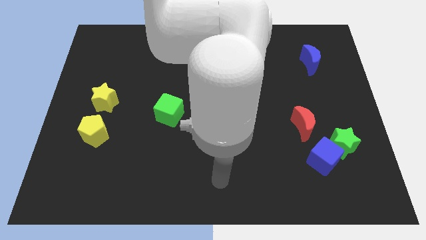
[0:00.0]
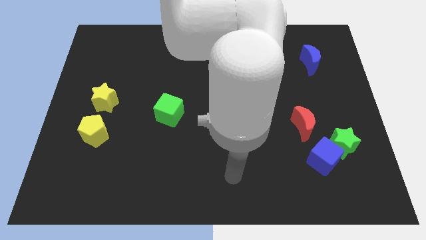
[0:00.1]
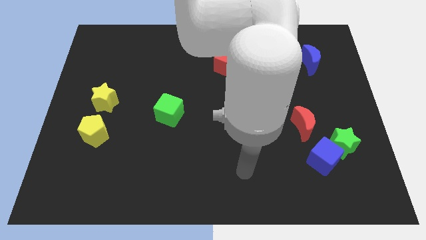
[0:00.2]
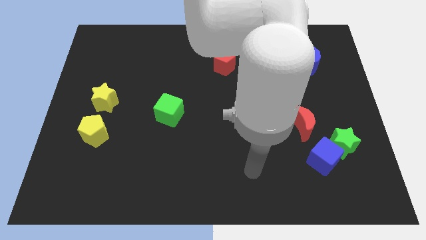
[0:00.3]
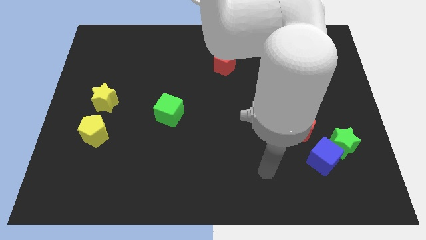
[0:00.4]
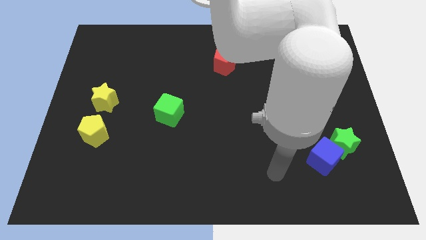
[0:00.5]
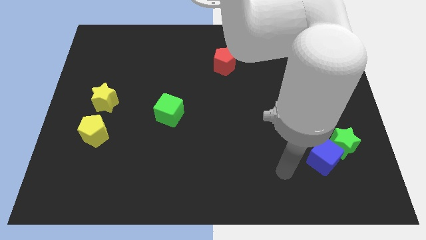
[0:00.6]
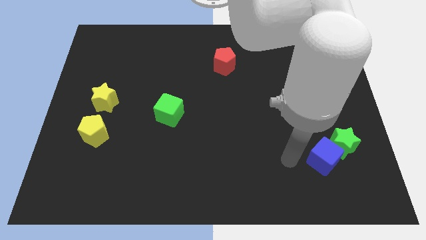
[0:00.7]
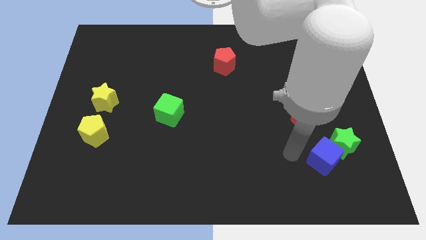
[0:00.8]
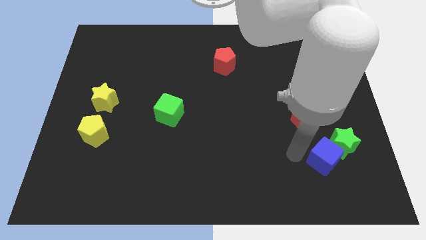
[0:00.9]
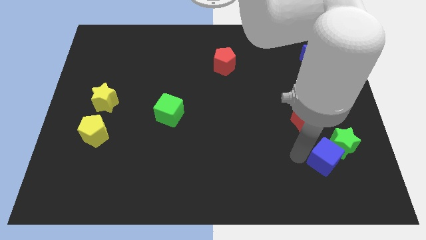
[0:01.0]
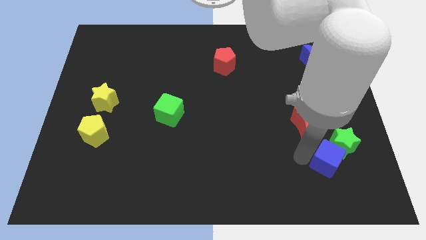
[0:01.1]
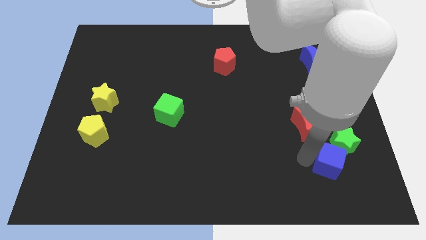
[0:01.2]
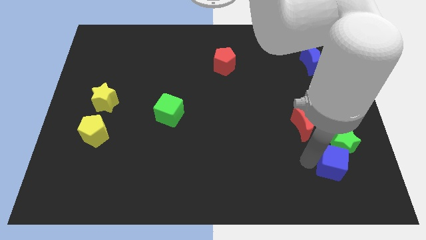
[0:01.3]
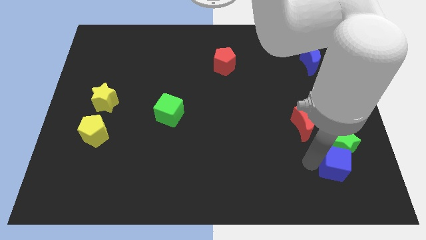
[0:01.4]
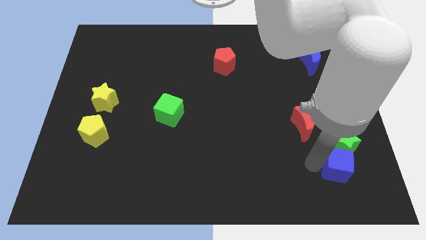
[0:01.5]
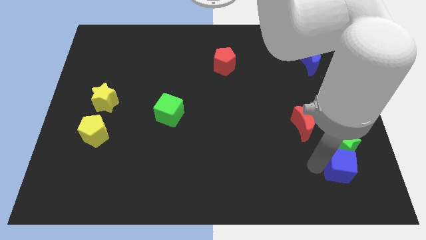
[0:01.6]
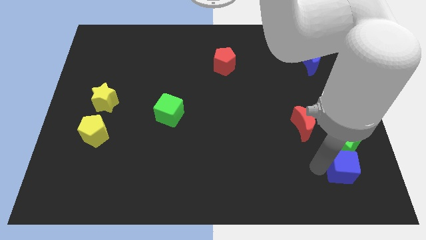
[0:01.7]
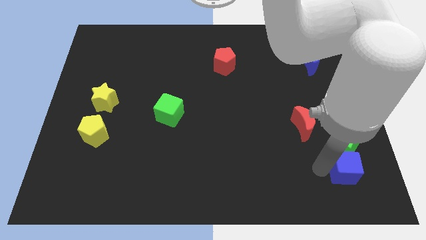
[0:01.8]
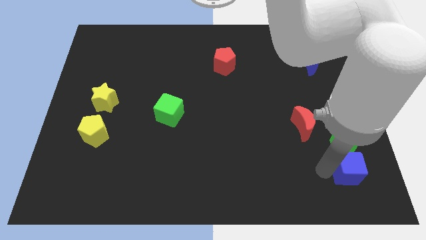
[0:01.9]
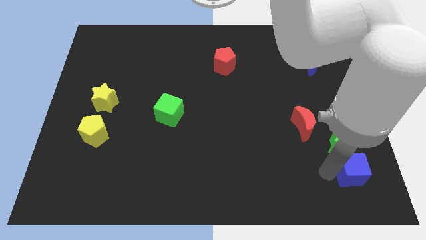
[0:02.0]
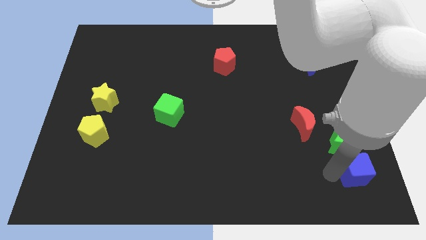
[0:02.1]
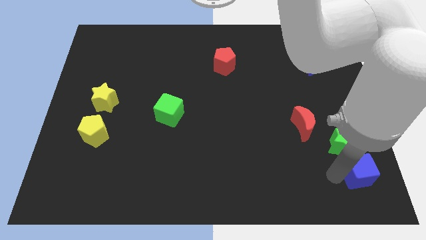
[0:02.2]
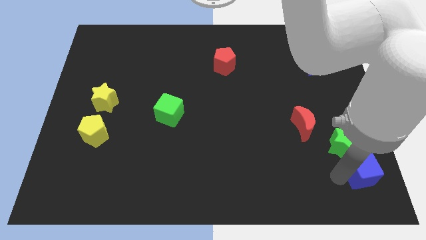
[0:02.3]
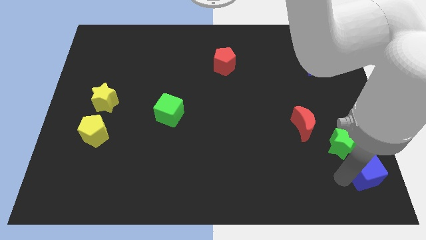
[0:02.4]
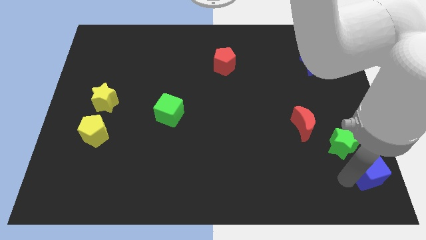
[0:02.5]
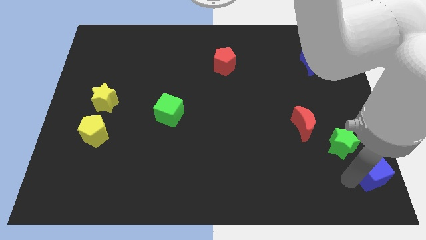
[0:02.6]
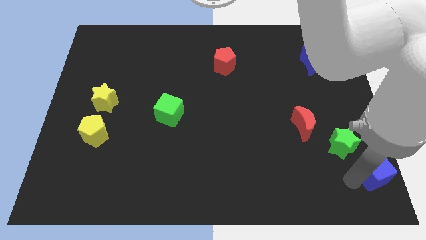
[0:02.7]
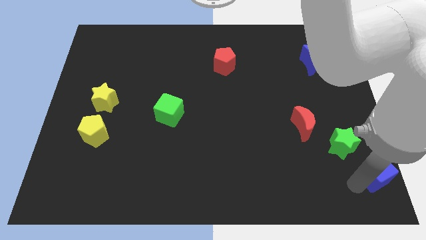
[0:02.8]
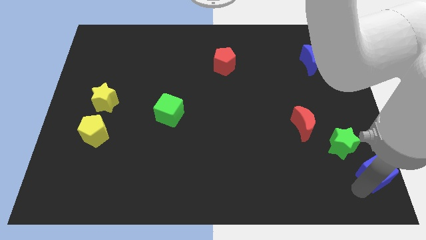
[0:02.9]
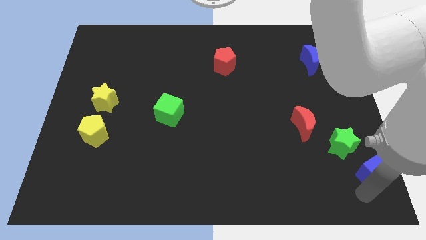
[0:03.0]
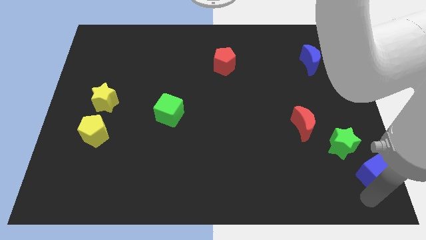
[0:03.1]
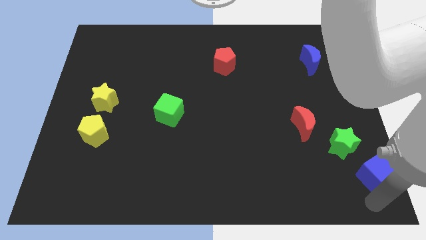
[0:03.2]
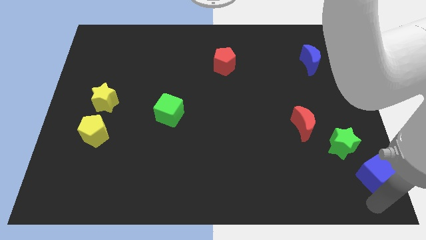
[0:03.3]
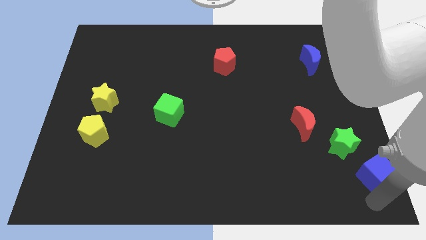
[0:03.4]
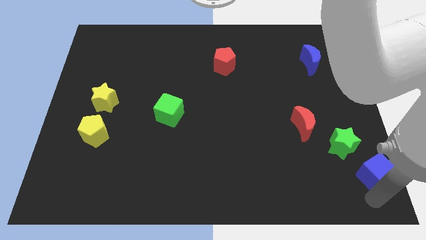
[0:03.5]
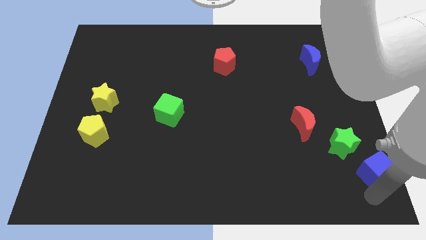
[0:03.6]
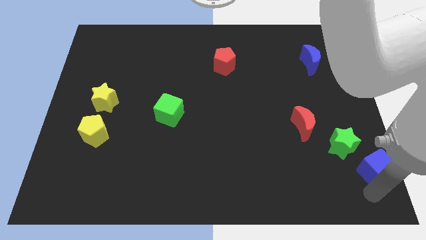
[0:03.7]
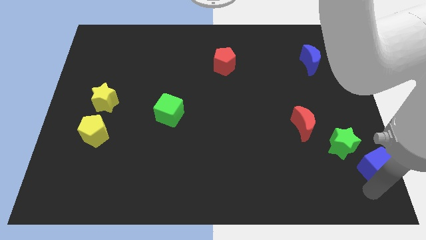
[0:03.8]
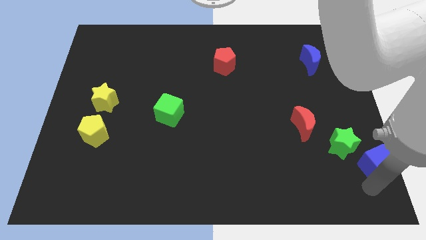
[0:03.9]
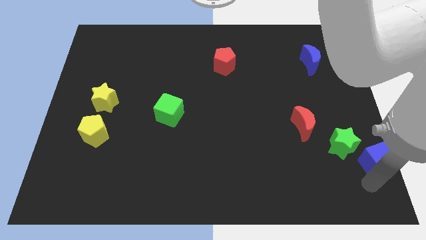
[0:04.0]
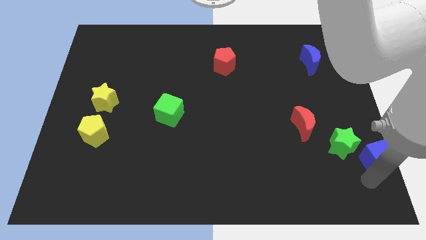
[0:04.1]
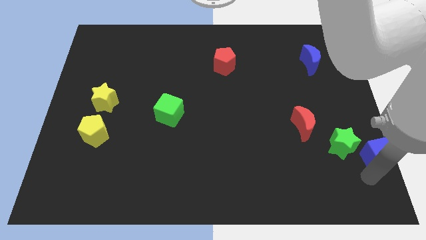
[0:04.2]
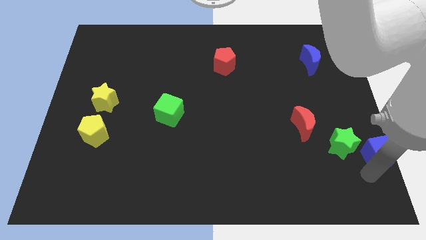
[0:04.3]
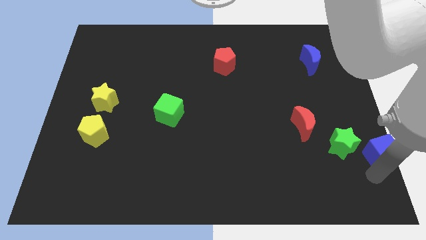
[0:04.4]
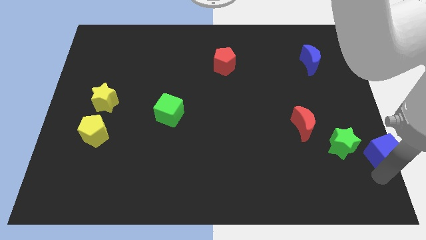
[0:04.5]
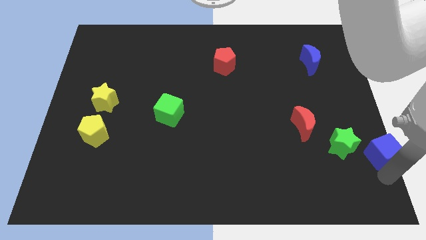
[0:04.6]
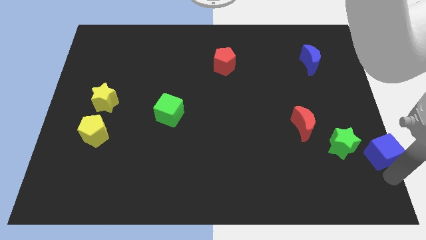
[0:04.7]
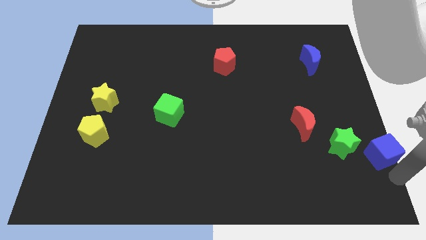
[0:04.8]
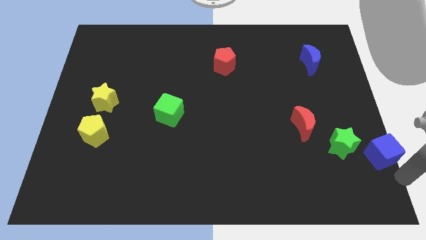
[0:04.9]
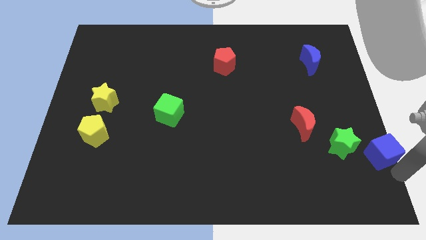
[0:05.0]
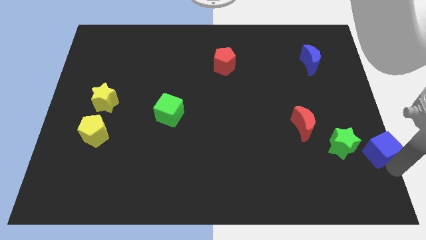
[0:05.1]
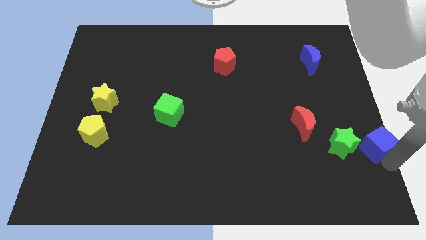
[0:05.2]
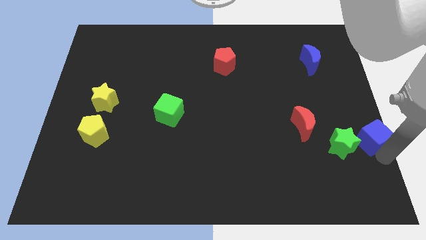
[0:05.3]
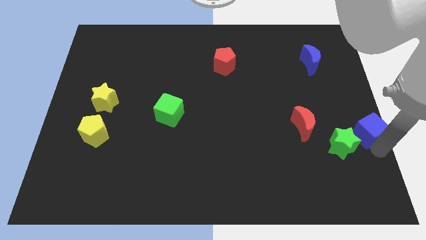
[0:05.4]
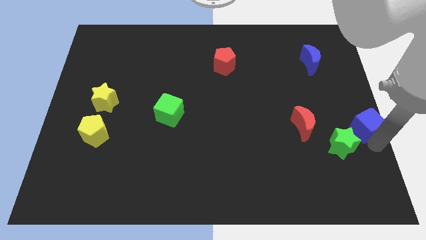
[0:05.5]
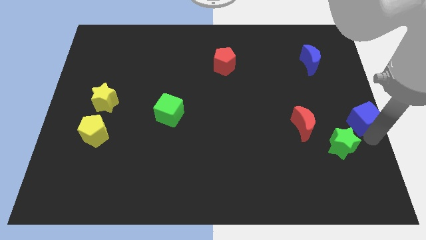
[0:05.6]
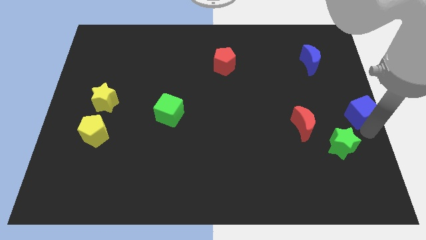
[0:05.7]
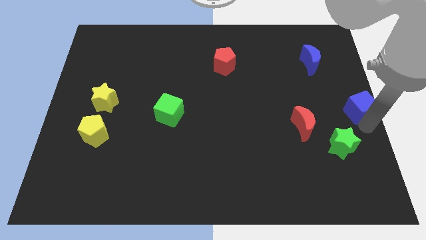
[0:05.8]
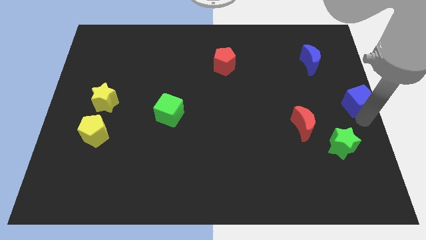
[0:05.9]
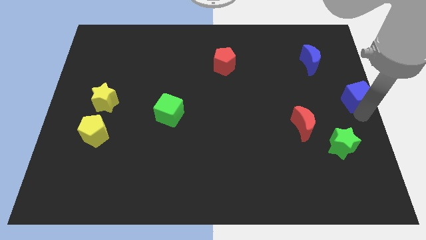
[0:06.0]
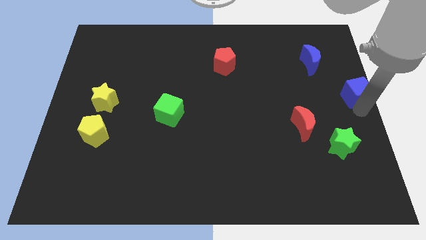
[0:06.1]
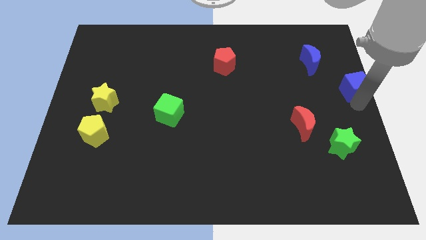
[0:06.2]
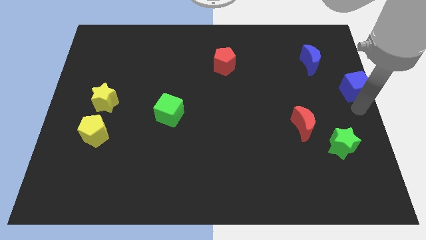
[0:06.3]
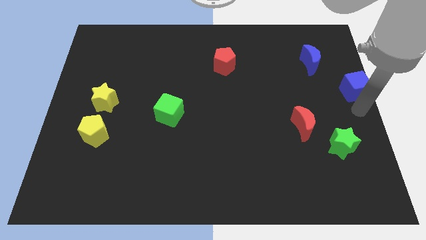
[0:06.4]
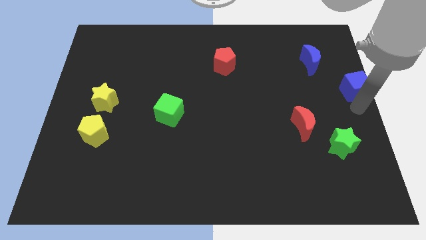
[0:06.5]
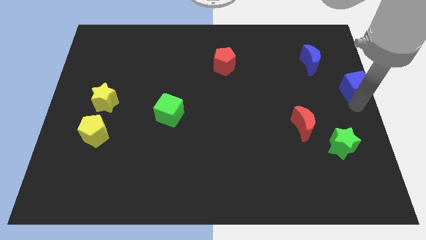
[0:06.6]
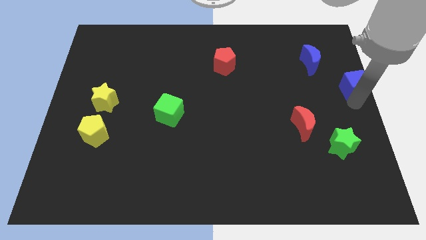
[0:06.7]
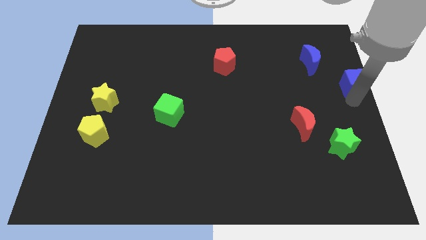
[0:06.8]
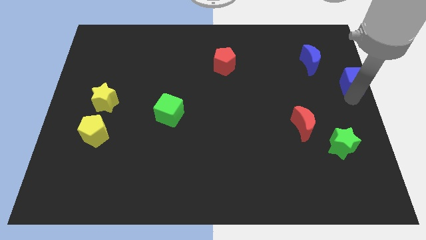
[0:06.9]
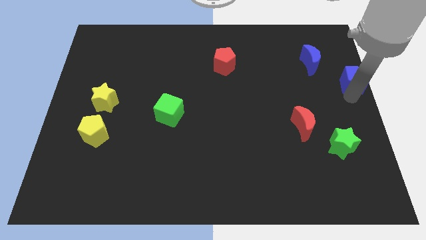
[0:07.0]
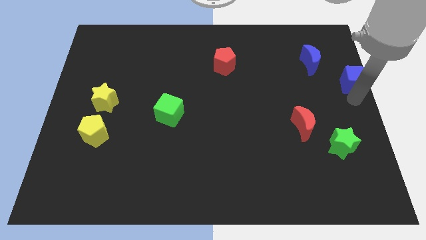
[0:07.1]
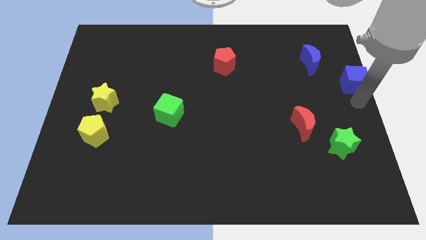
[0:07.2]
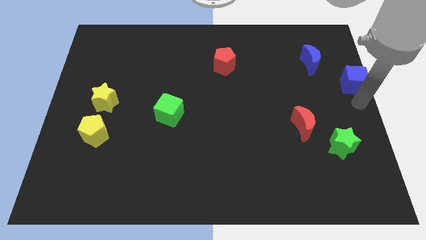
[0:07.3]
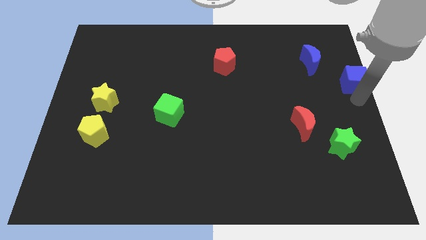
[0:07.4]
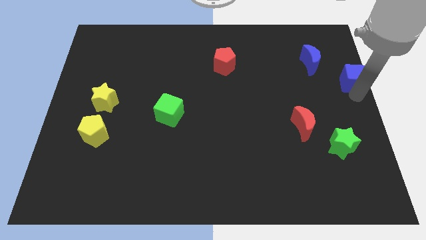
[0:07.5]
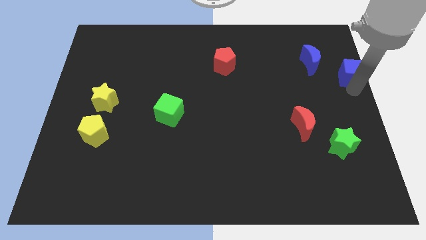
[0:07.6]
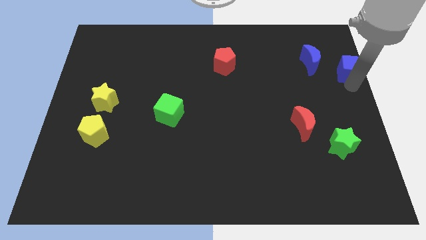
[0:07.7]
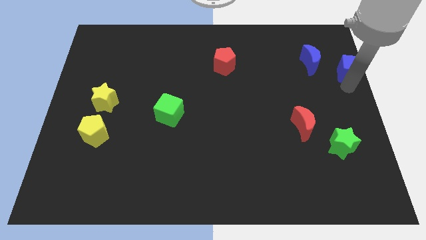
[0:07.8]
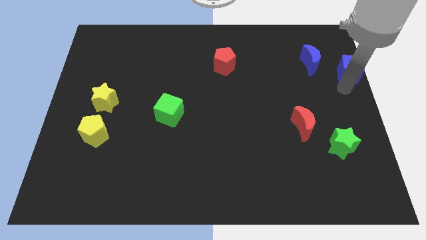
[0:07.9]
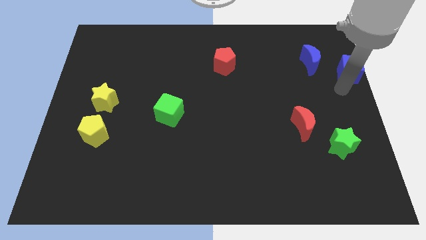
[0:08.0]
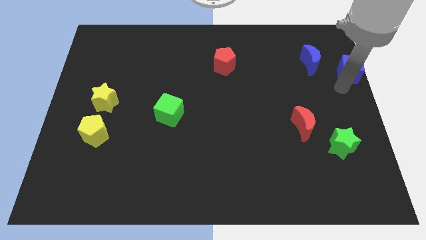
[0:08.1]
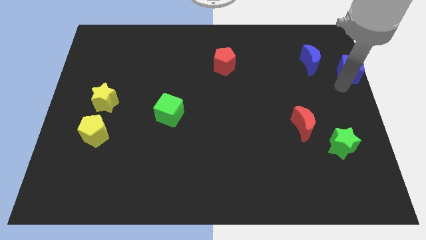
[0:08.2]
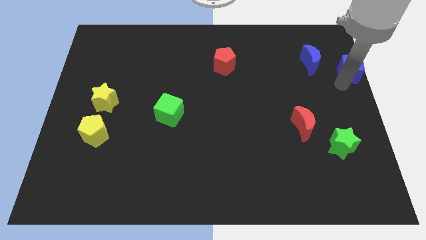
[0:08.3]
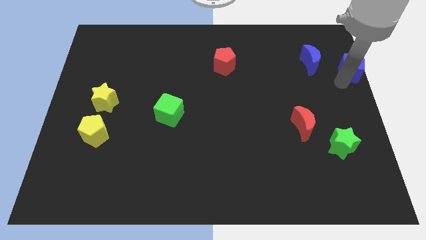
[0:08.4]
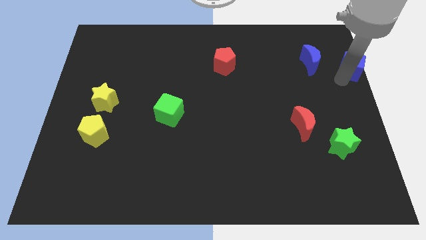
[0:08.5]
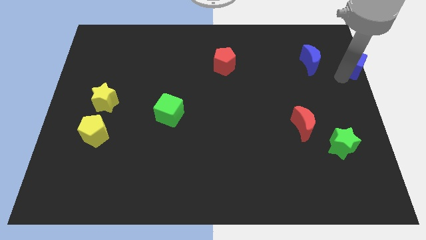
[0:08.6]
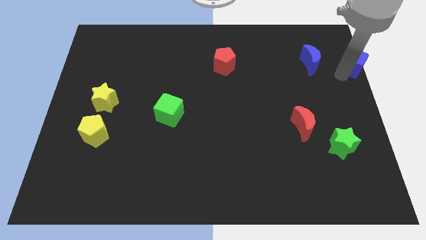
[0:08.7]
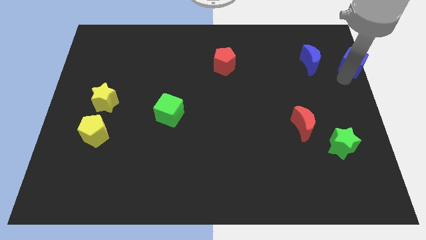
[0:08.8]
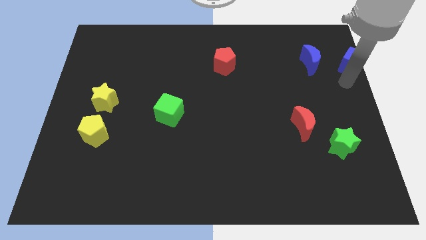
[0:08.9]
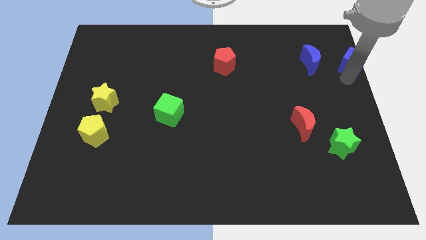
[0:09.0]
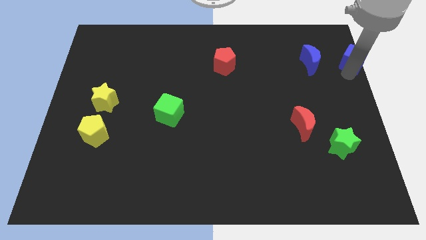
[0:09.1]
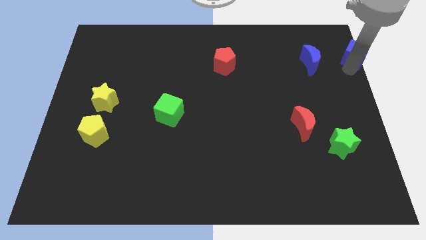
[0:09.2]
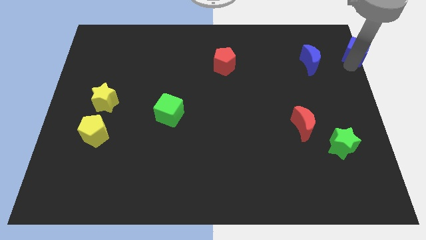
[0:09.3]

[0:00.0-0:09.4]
put the blue cube to the top right of the board
